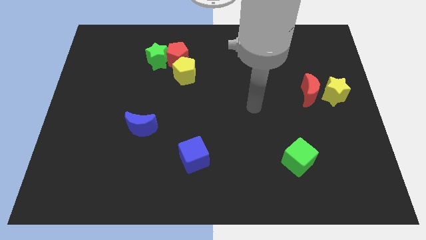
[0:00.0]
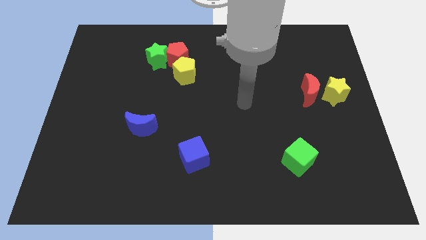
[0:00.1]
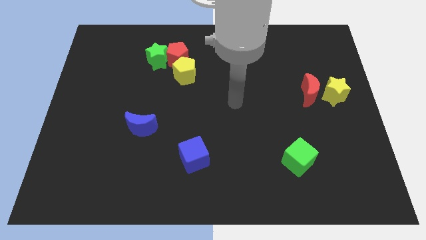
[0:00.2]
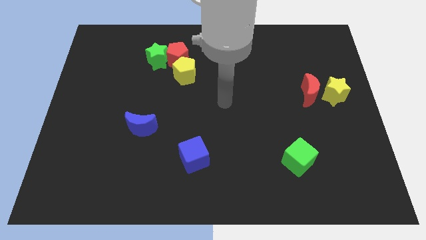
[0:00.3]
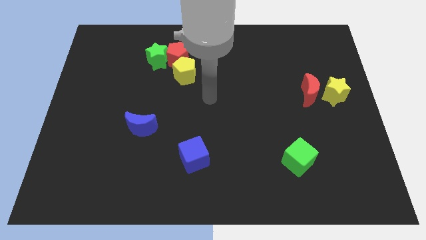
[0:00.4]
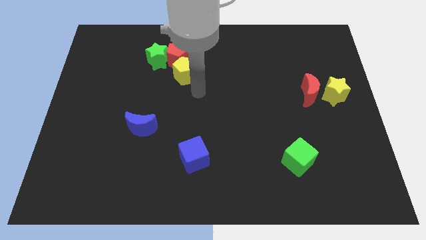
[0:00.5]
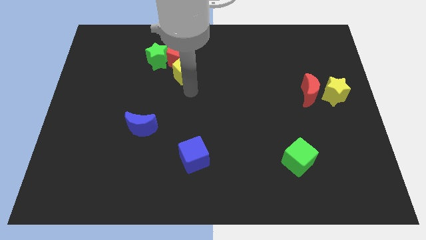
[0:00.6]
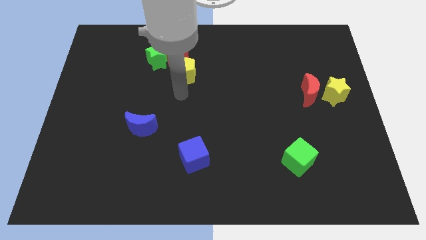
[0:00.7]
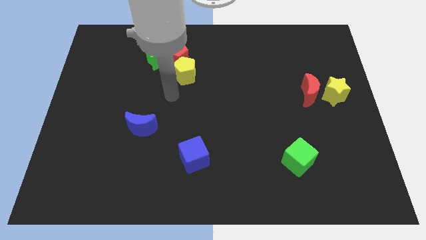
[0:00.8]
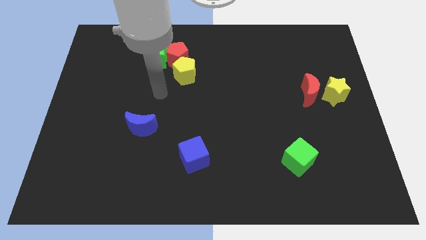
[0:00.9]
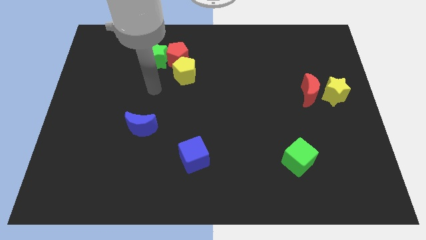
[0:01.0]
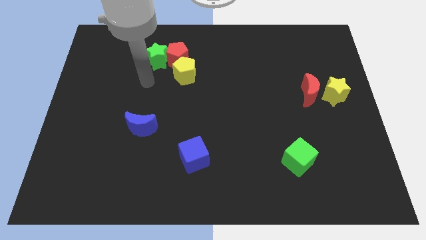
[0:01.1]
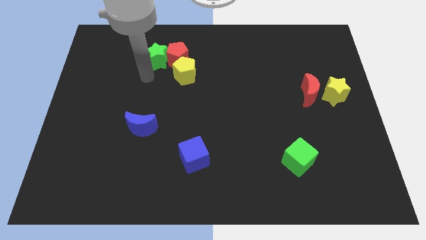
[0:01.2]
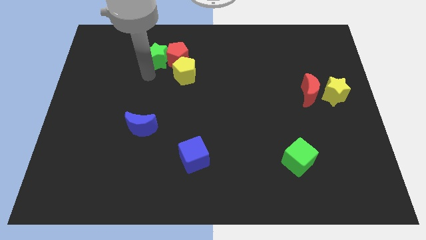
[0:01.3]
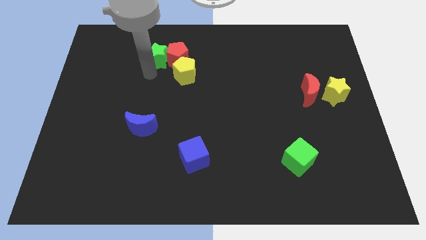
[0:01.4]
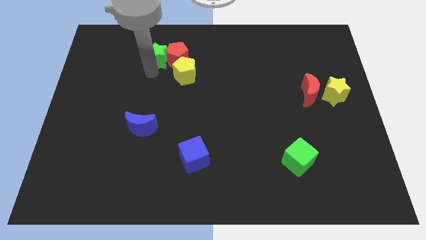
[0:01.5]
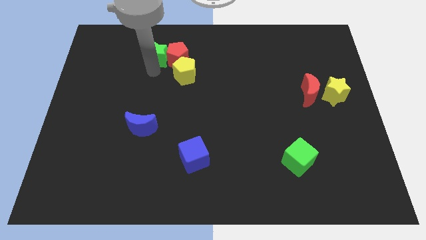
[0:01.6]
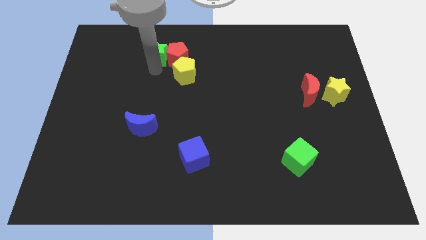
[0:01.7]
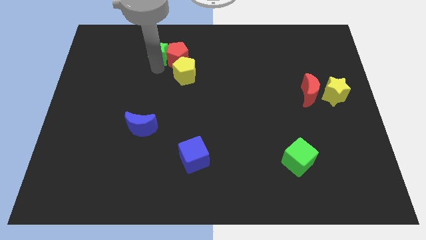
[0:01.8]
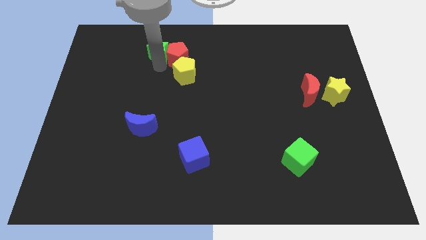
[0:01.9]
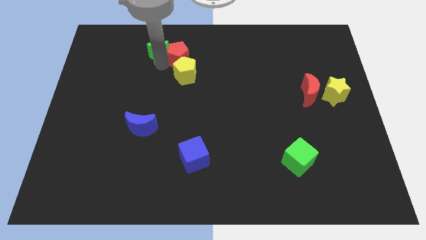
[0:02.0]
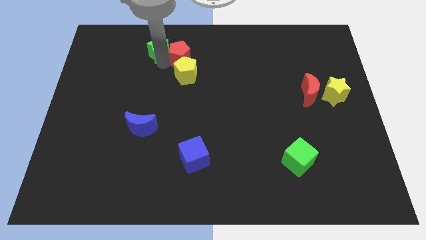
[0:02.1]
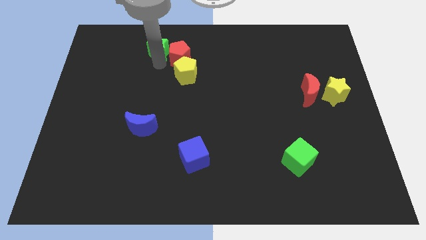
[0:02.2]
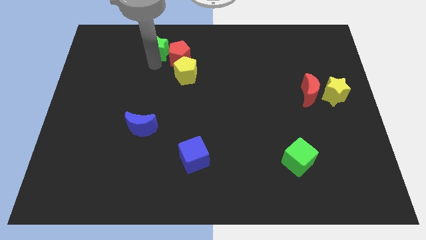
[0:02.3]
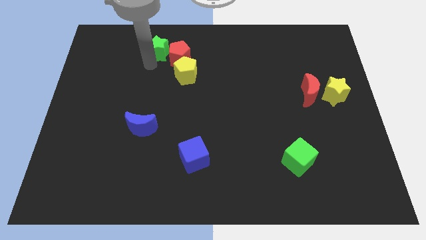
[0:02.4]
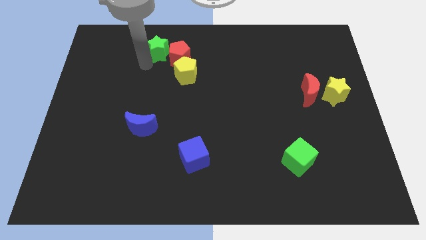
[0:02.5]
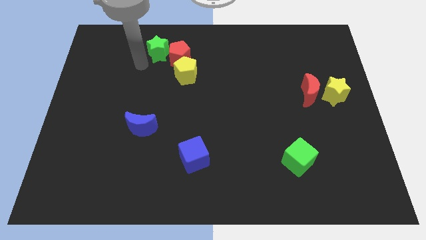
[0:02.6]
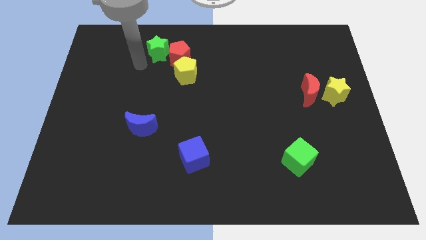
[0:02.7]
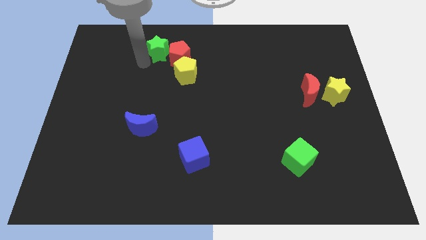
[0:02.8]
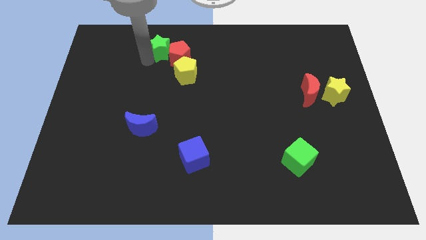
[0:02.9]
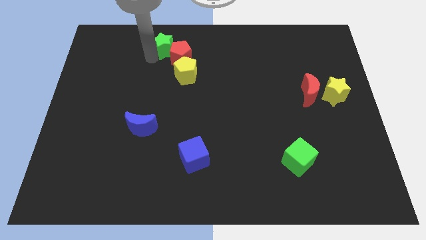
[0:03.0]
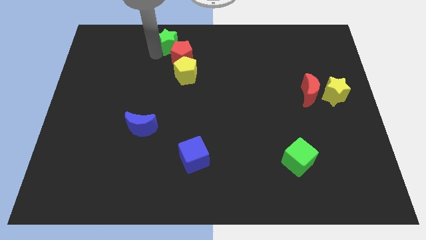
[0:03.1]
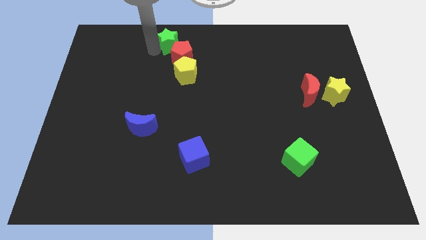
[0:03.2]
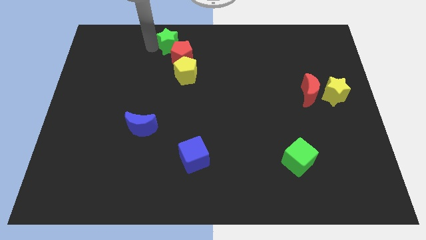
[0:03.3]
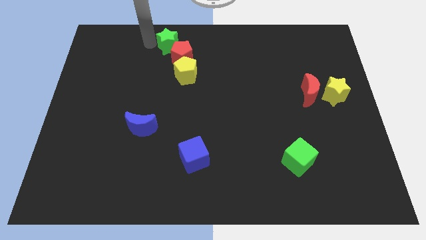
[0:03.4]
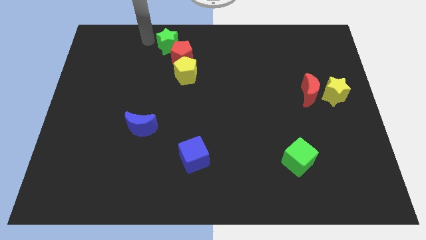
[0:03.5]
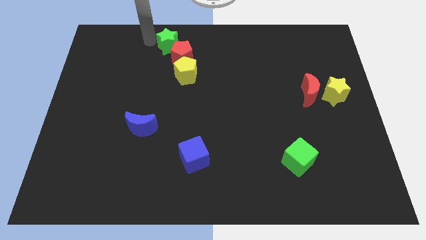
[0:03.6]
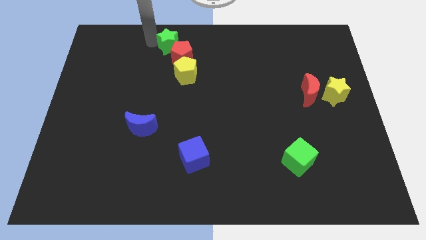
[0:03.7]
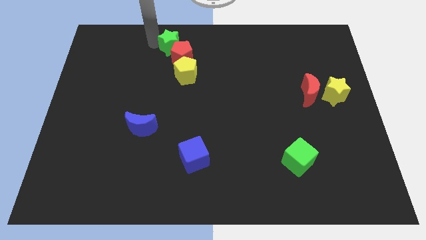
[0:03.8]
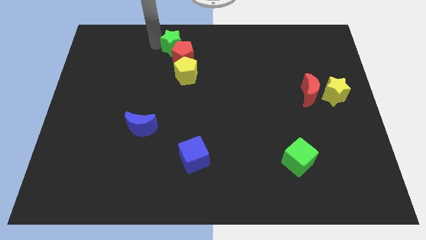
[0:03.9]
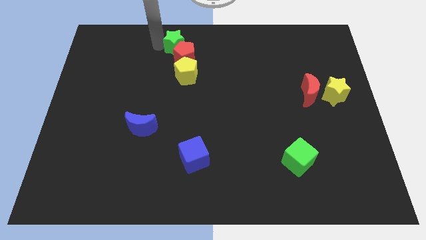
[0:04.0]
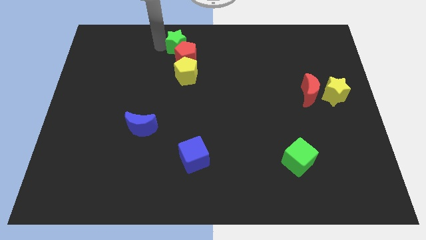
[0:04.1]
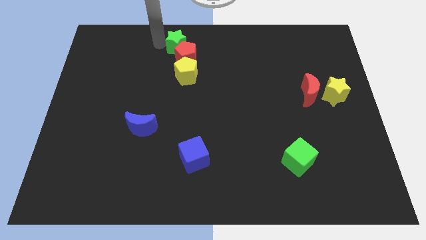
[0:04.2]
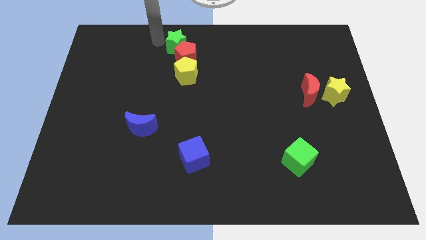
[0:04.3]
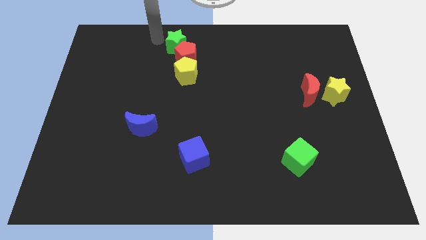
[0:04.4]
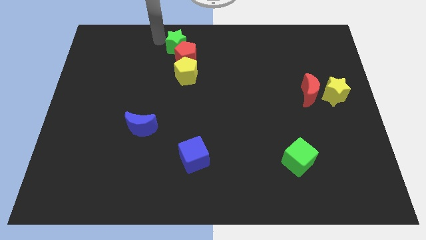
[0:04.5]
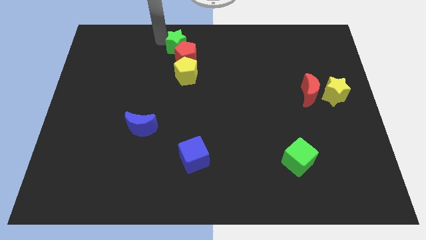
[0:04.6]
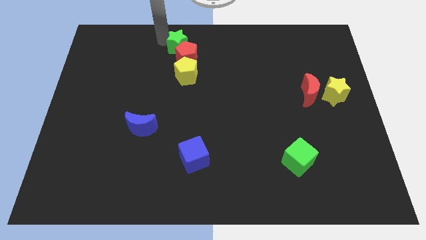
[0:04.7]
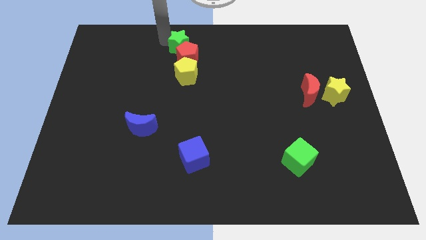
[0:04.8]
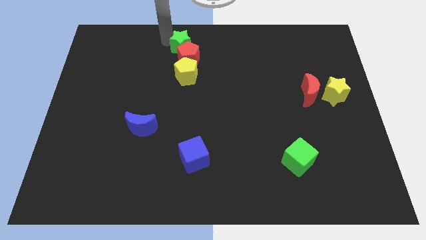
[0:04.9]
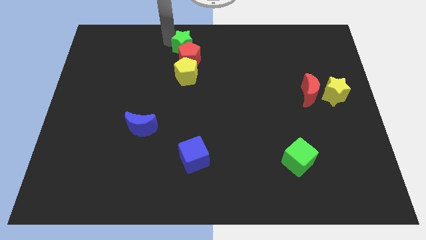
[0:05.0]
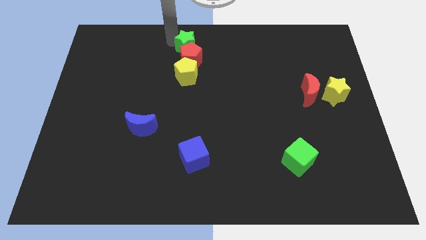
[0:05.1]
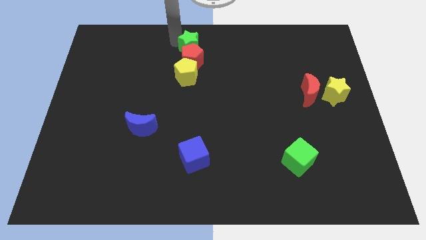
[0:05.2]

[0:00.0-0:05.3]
slightly slide the green star to the right

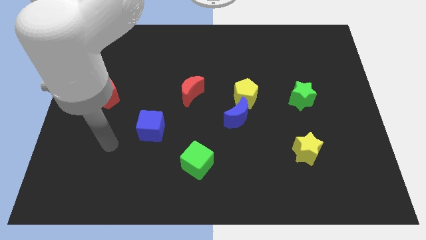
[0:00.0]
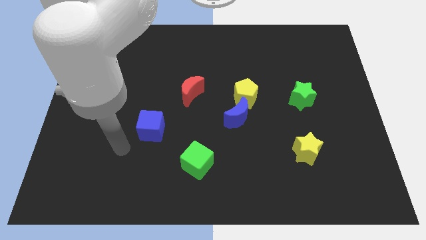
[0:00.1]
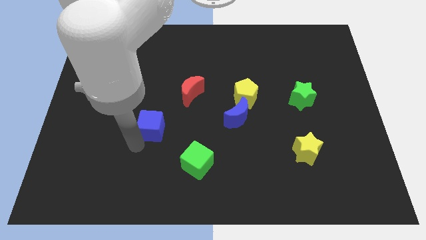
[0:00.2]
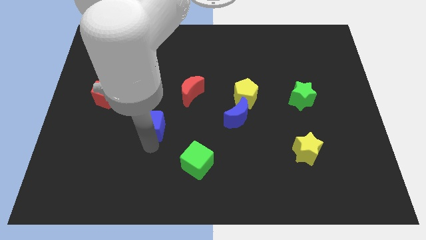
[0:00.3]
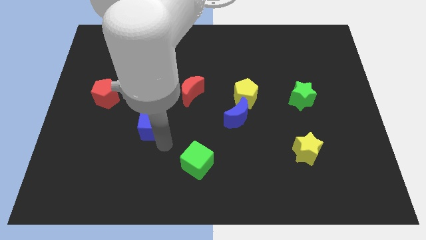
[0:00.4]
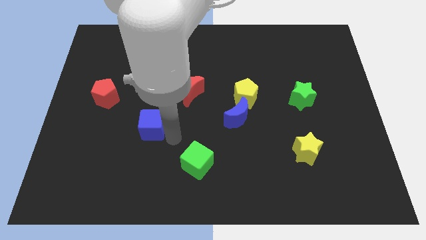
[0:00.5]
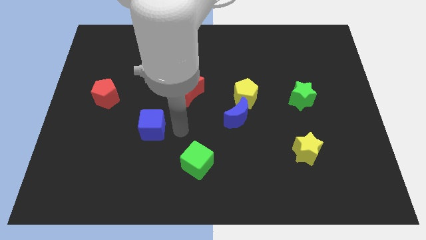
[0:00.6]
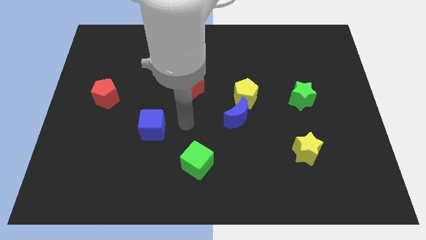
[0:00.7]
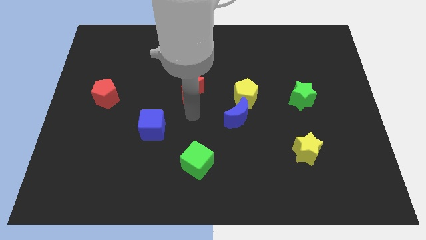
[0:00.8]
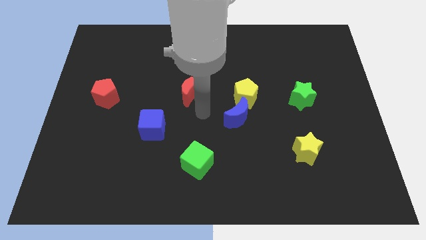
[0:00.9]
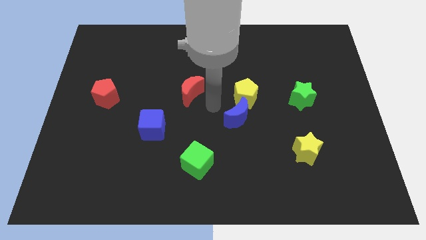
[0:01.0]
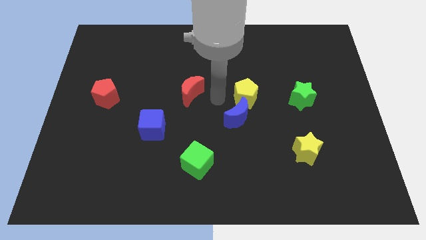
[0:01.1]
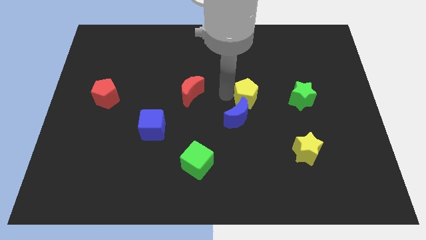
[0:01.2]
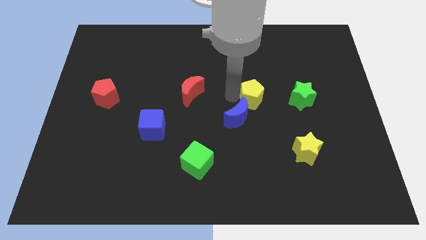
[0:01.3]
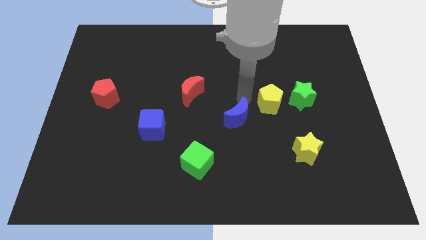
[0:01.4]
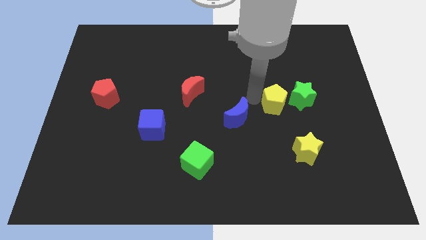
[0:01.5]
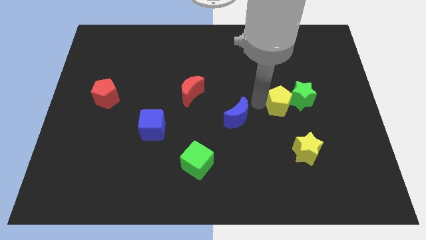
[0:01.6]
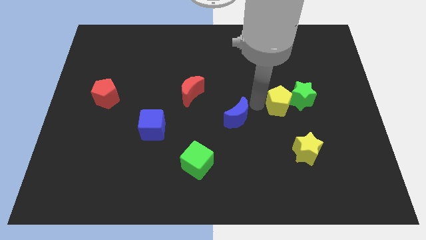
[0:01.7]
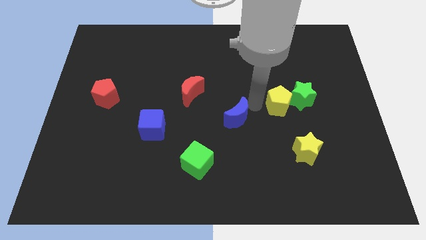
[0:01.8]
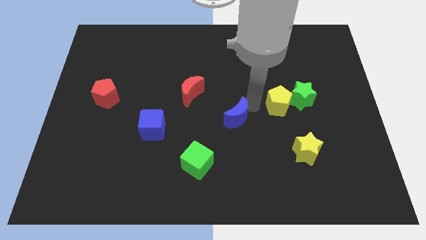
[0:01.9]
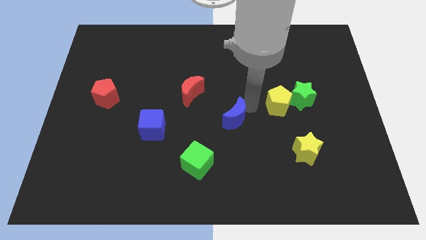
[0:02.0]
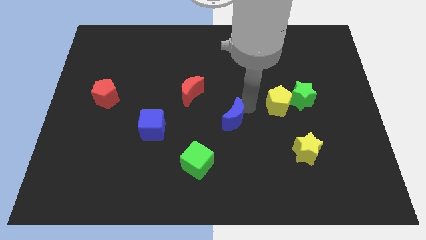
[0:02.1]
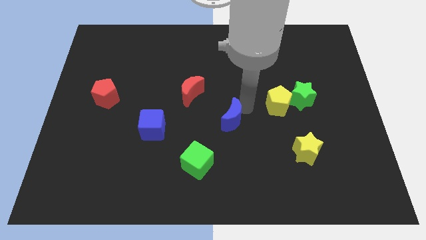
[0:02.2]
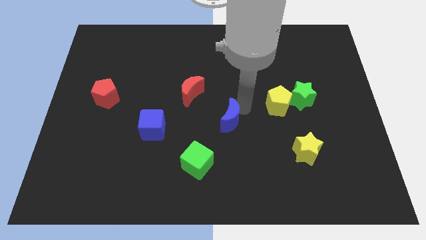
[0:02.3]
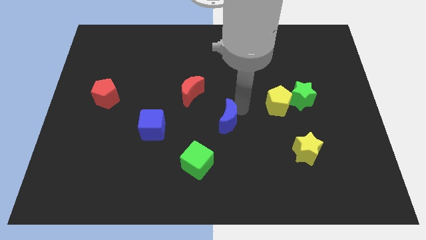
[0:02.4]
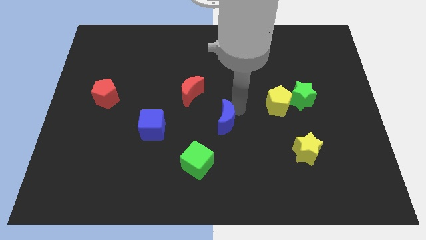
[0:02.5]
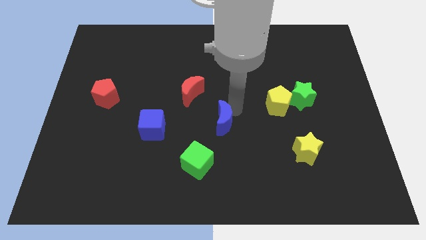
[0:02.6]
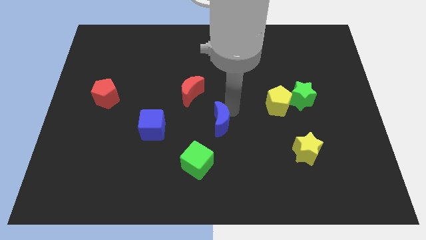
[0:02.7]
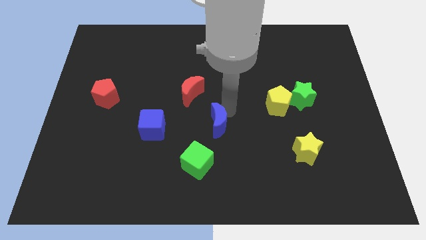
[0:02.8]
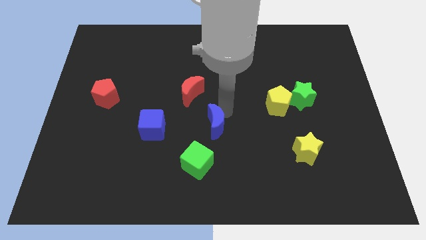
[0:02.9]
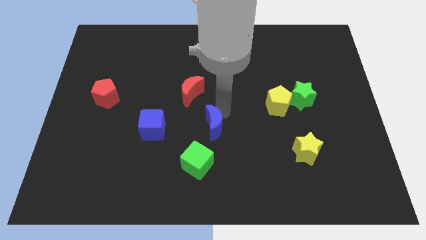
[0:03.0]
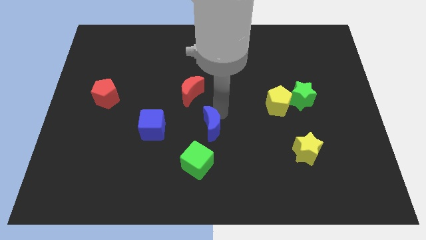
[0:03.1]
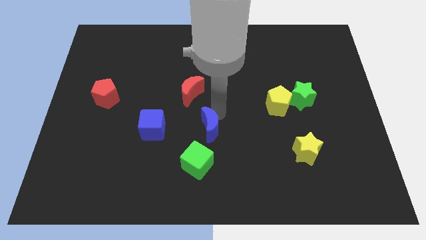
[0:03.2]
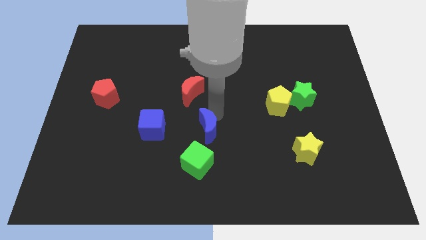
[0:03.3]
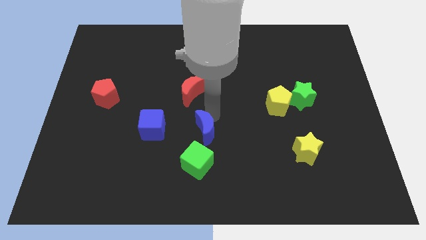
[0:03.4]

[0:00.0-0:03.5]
slightly slide the blue moon downwards and to the left diagonally
